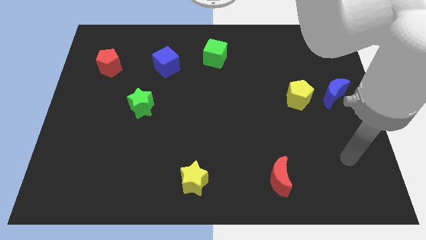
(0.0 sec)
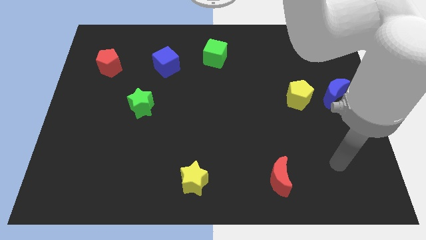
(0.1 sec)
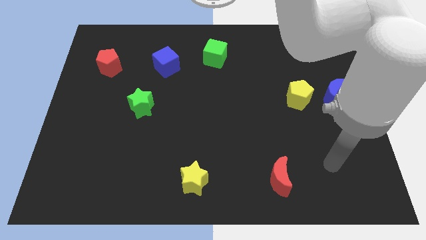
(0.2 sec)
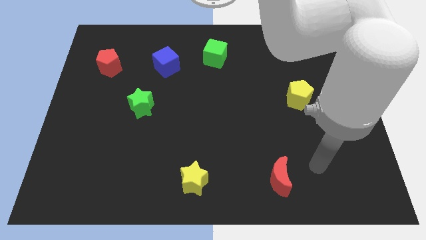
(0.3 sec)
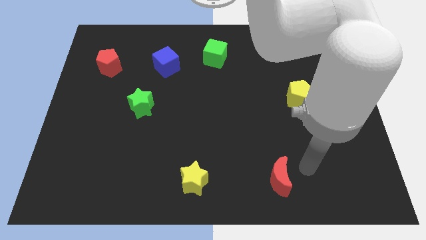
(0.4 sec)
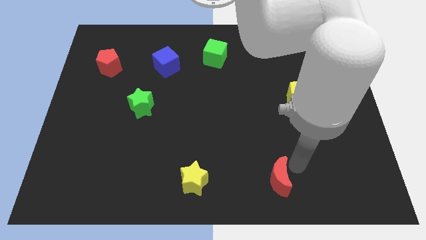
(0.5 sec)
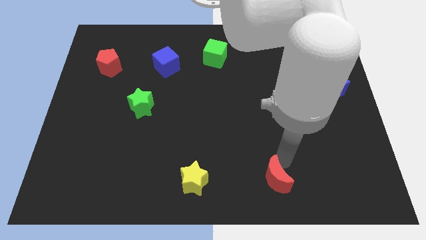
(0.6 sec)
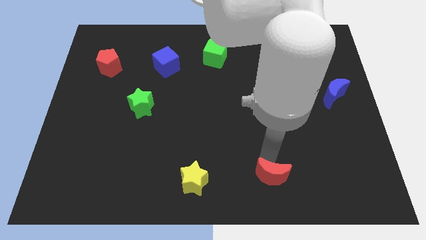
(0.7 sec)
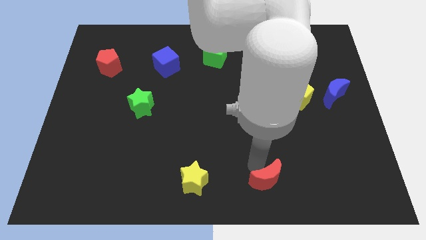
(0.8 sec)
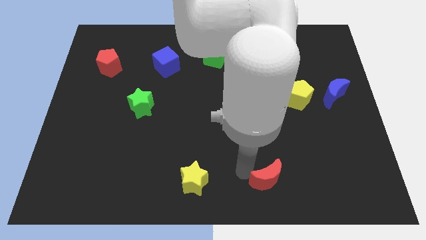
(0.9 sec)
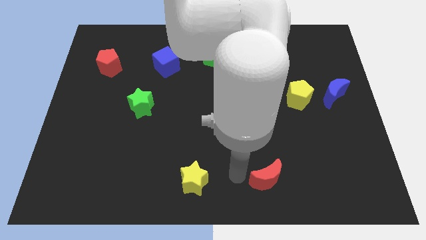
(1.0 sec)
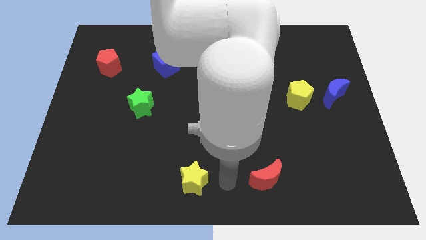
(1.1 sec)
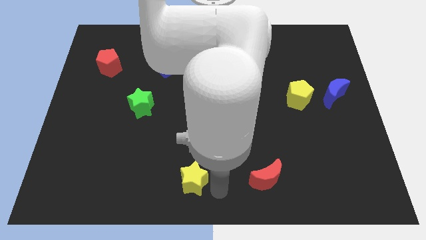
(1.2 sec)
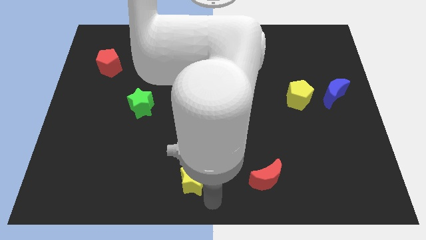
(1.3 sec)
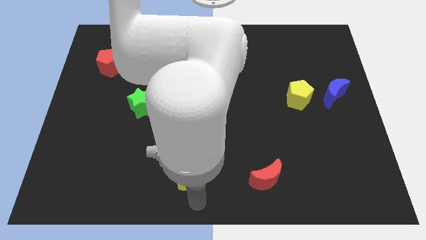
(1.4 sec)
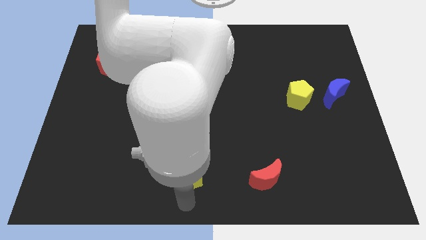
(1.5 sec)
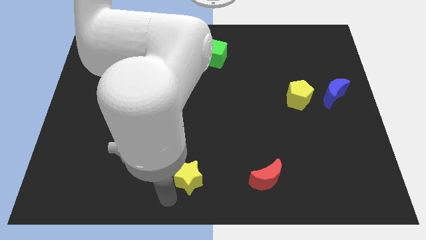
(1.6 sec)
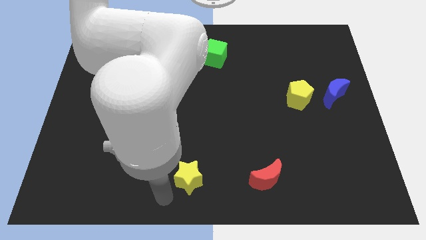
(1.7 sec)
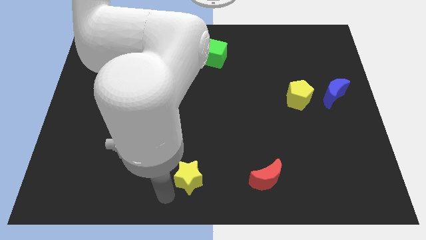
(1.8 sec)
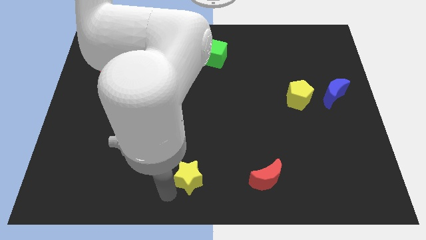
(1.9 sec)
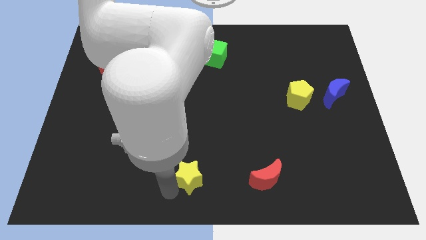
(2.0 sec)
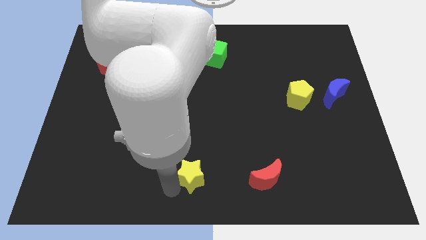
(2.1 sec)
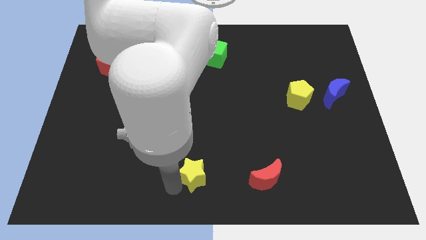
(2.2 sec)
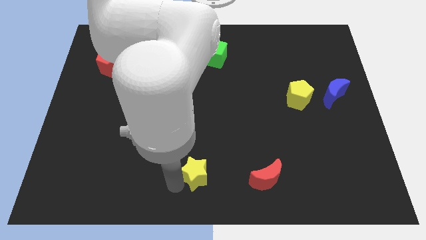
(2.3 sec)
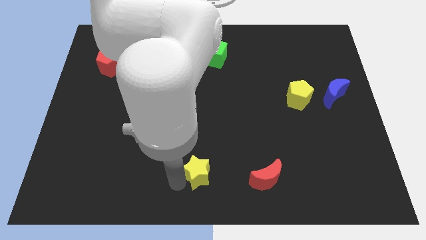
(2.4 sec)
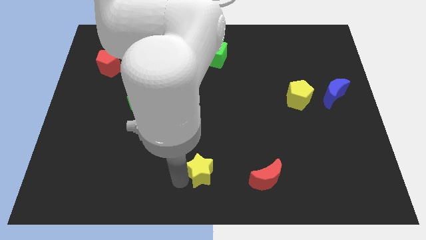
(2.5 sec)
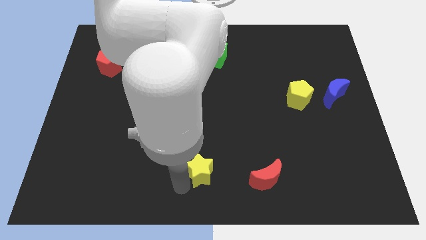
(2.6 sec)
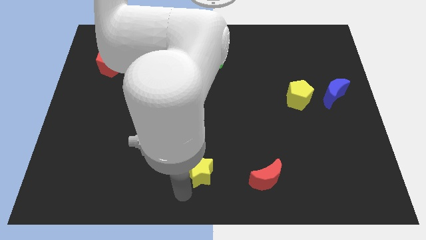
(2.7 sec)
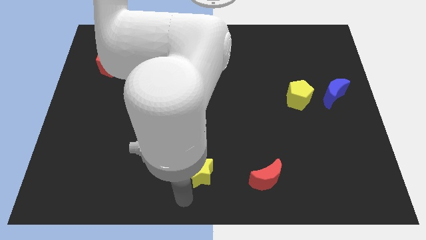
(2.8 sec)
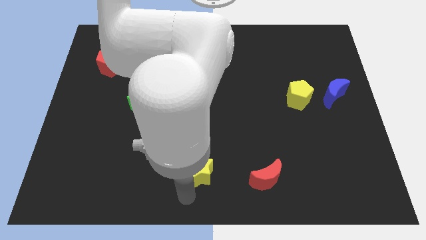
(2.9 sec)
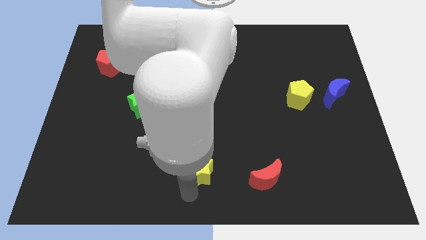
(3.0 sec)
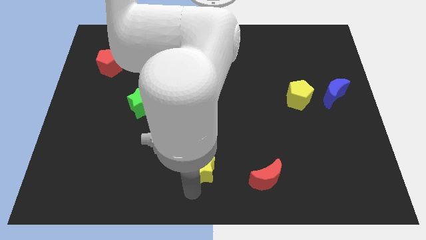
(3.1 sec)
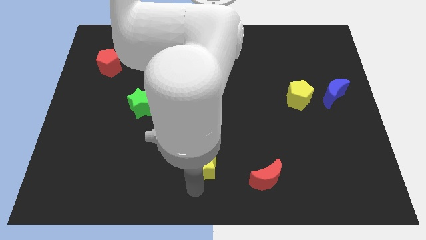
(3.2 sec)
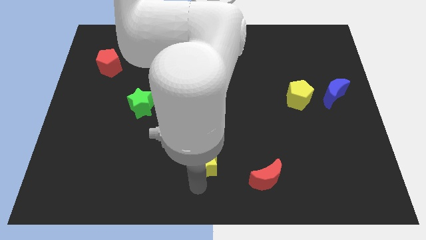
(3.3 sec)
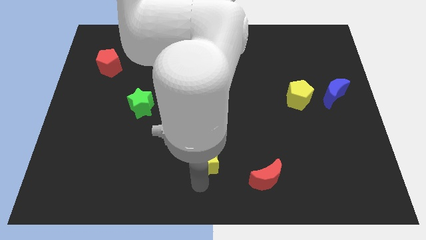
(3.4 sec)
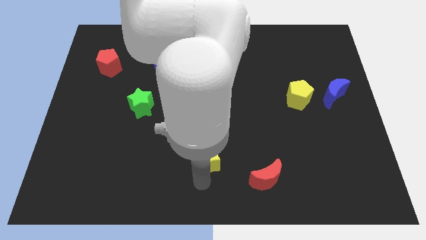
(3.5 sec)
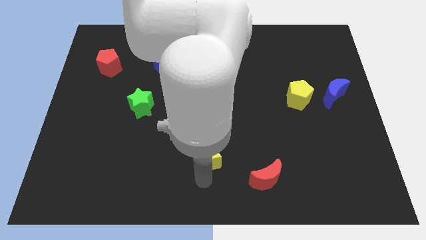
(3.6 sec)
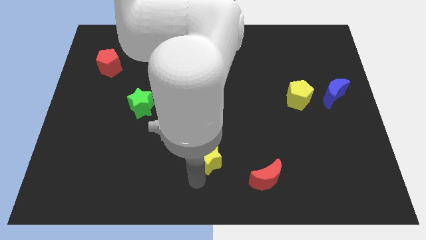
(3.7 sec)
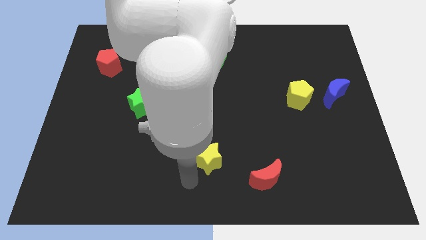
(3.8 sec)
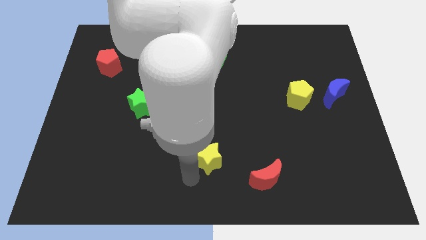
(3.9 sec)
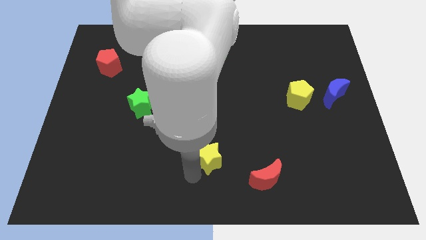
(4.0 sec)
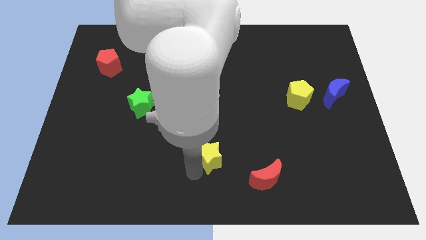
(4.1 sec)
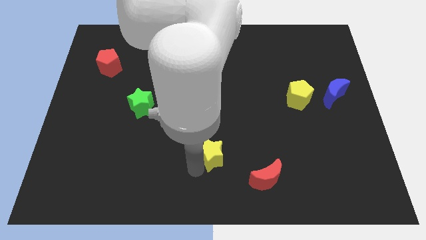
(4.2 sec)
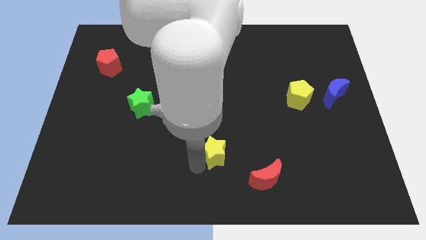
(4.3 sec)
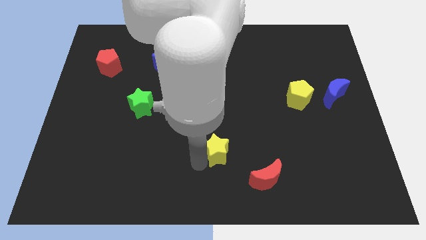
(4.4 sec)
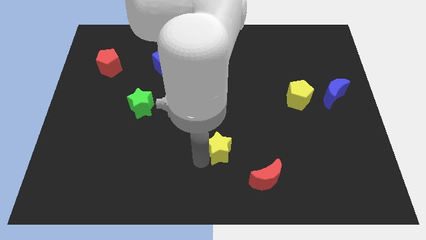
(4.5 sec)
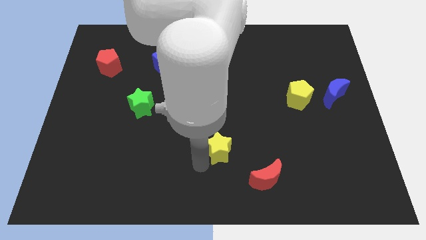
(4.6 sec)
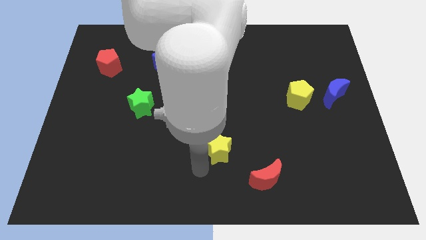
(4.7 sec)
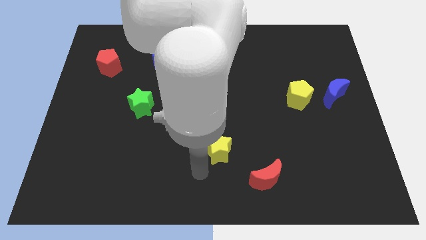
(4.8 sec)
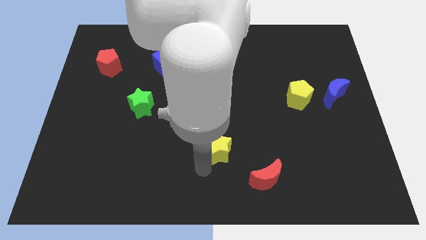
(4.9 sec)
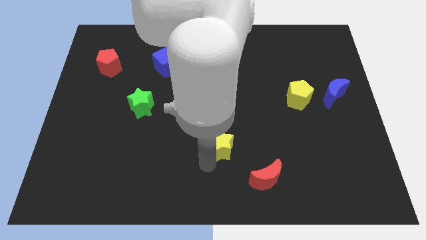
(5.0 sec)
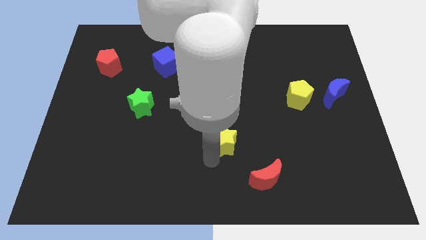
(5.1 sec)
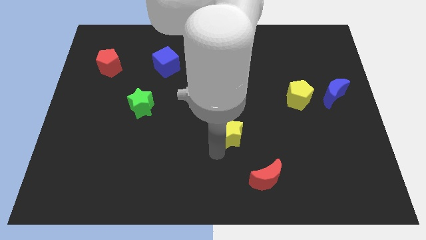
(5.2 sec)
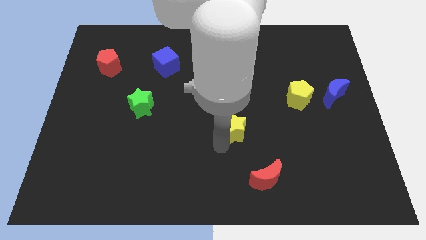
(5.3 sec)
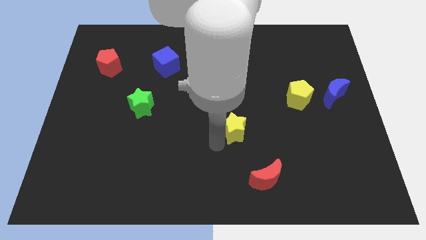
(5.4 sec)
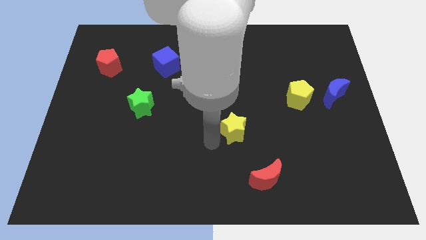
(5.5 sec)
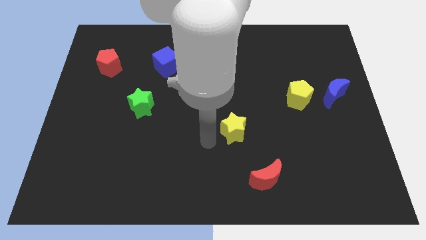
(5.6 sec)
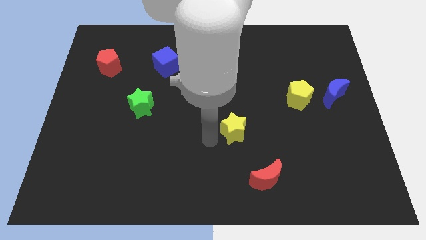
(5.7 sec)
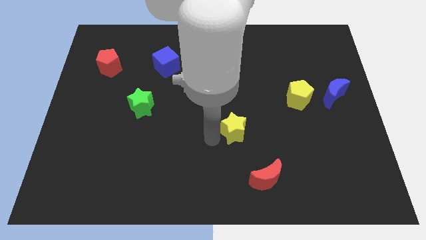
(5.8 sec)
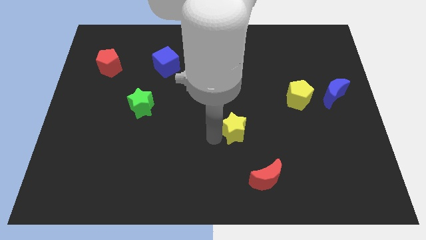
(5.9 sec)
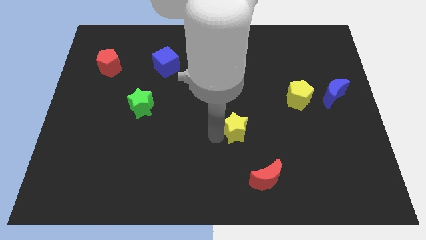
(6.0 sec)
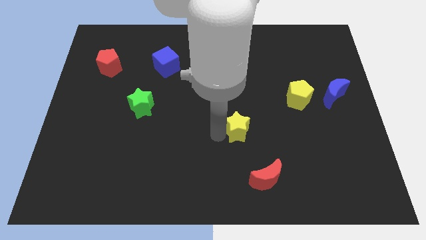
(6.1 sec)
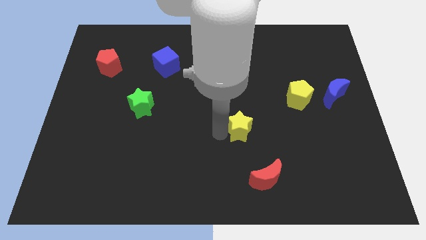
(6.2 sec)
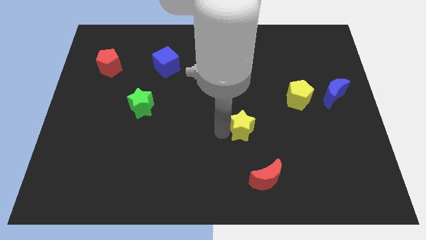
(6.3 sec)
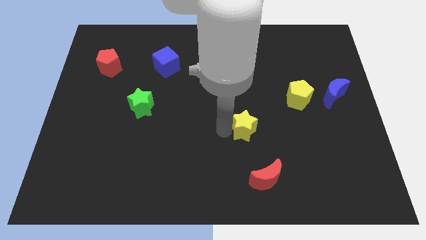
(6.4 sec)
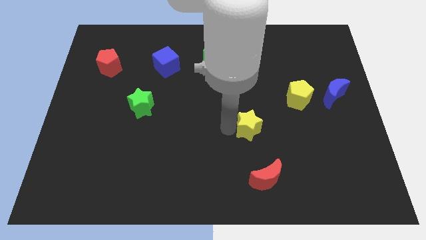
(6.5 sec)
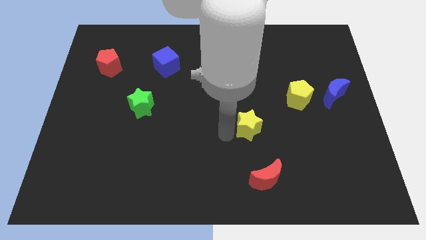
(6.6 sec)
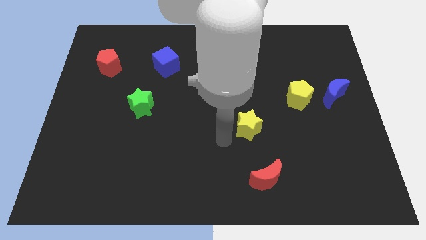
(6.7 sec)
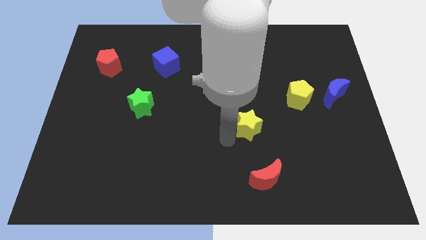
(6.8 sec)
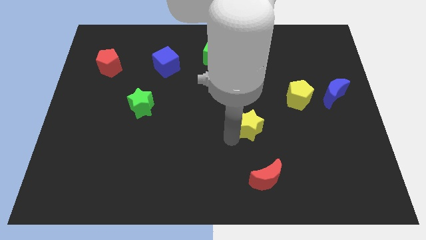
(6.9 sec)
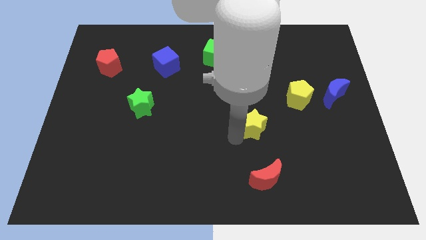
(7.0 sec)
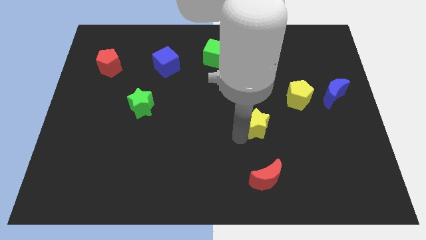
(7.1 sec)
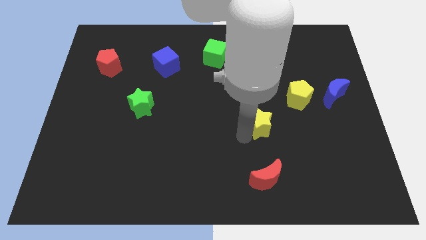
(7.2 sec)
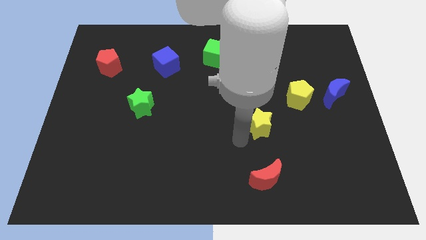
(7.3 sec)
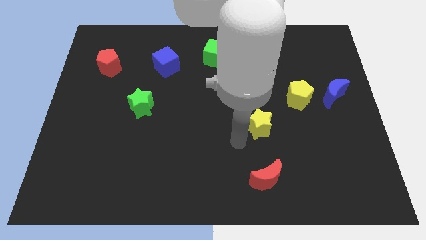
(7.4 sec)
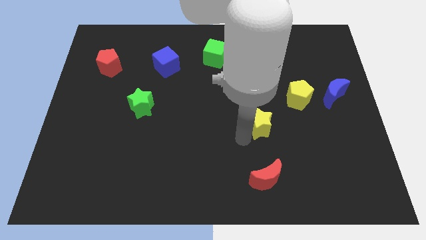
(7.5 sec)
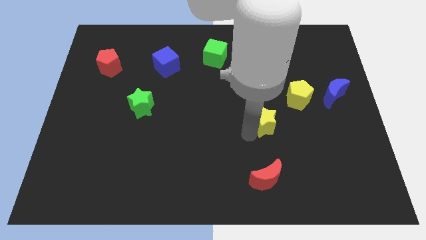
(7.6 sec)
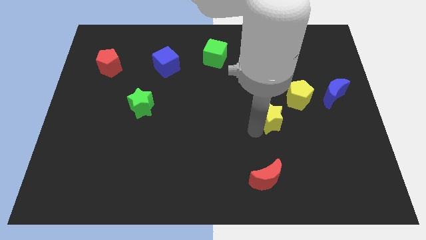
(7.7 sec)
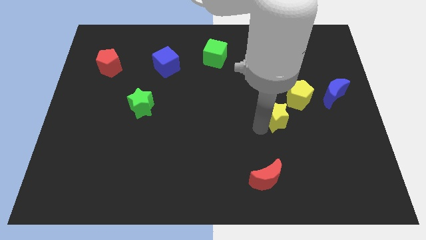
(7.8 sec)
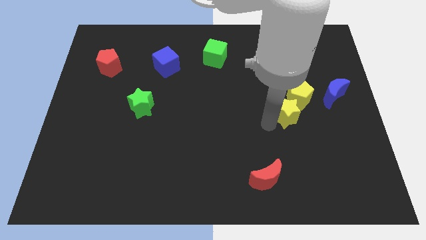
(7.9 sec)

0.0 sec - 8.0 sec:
put the yellow star next to the yellow pentagon
